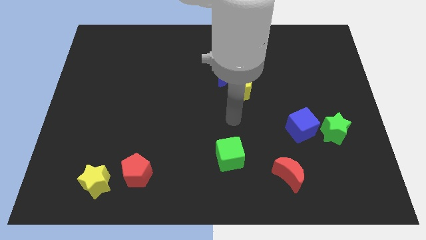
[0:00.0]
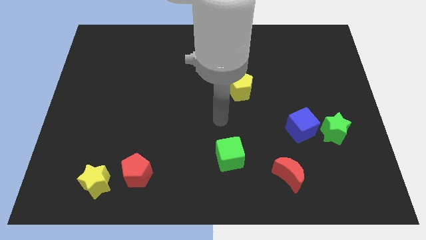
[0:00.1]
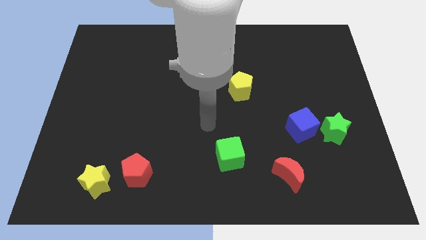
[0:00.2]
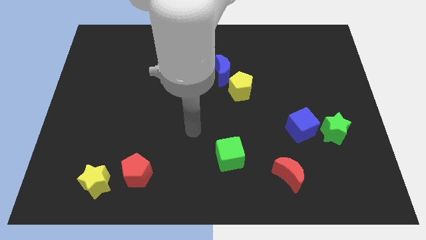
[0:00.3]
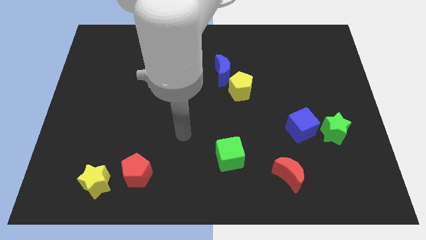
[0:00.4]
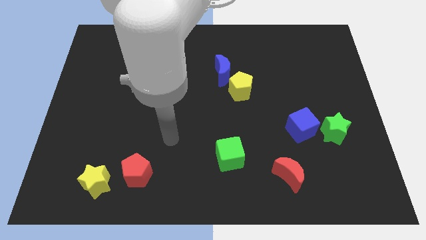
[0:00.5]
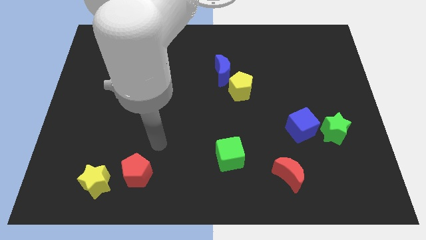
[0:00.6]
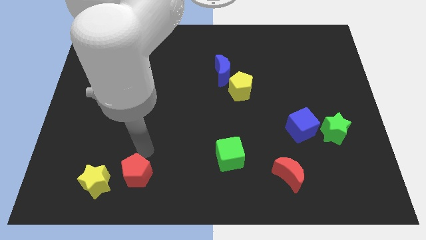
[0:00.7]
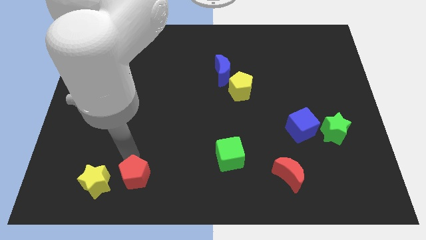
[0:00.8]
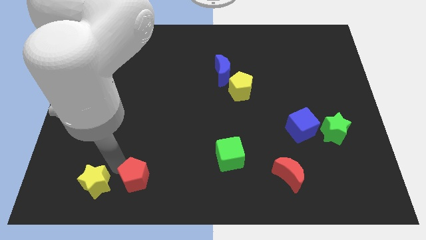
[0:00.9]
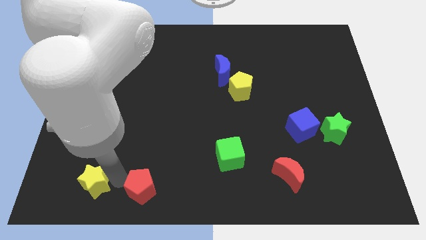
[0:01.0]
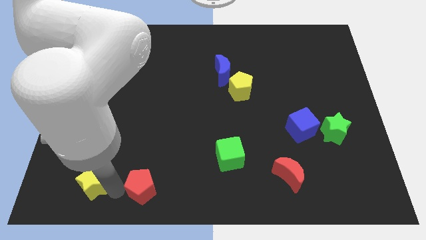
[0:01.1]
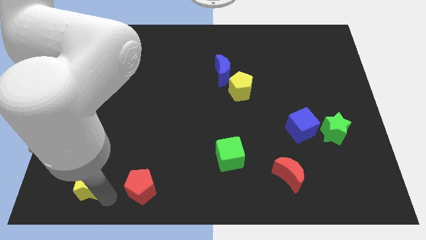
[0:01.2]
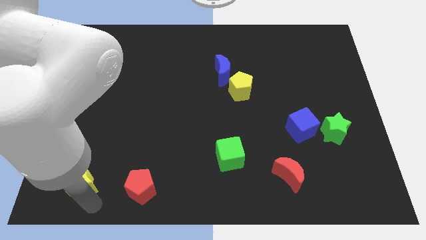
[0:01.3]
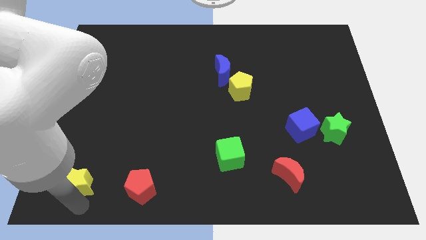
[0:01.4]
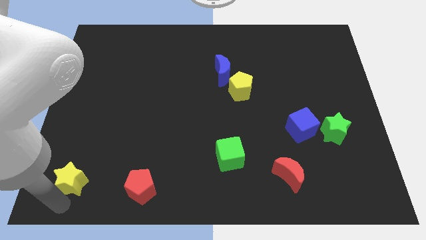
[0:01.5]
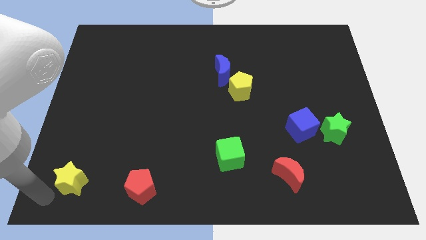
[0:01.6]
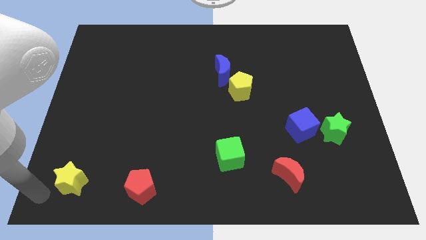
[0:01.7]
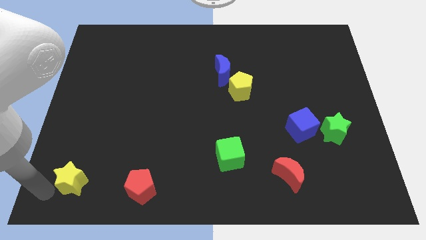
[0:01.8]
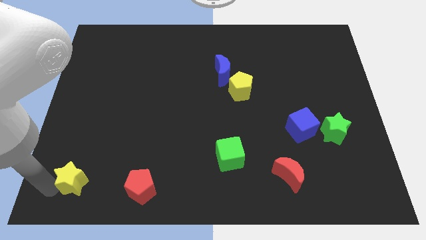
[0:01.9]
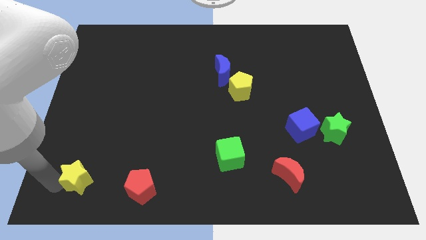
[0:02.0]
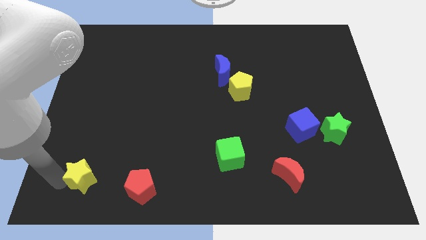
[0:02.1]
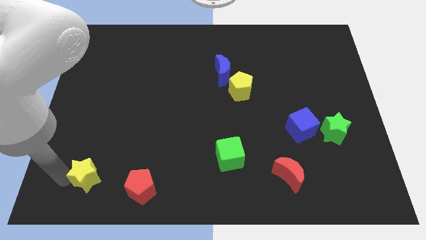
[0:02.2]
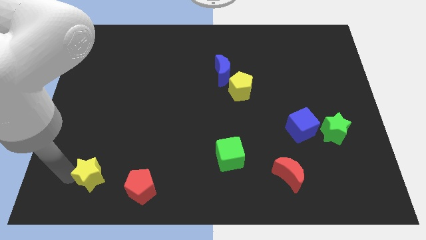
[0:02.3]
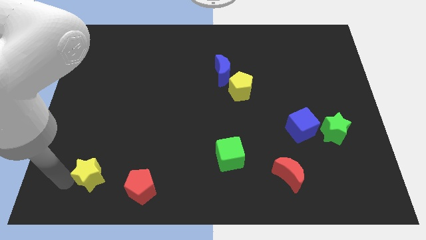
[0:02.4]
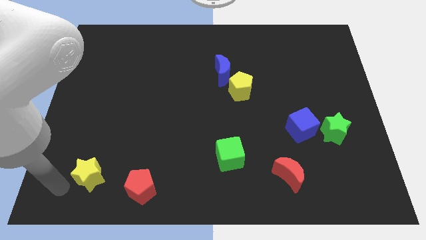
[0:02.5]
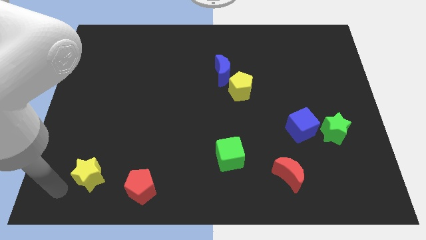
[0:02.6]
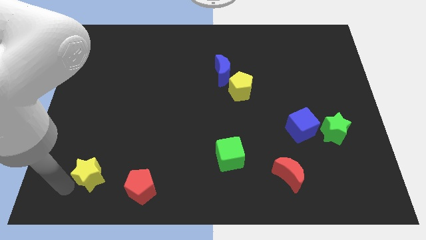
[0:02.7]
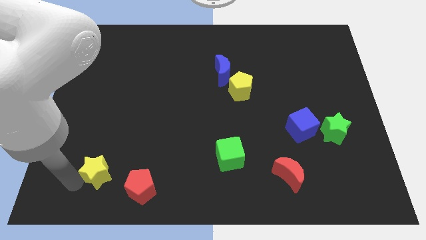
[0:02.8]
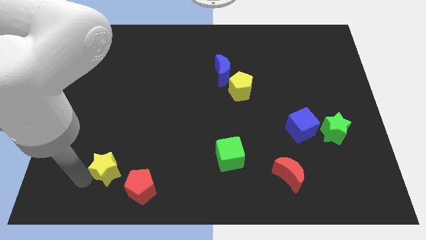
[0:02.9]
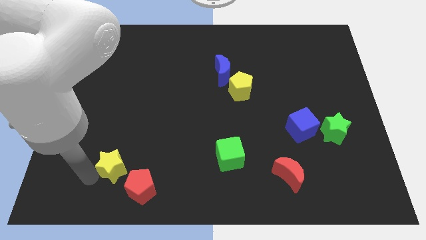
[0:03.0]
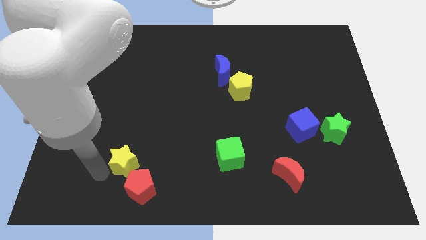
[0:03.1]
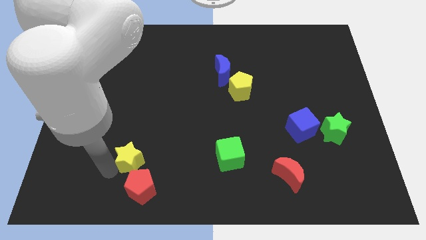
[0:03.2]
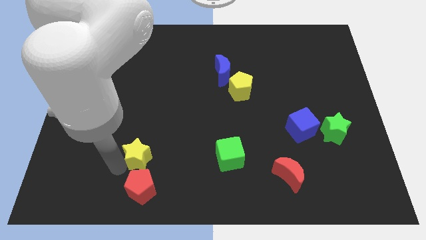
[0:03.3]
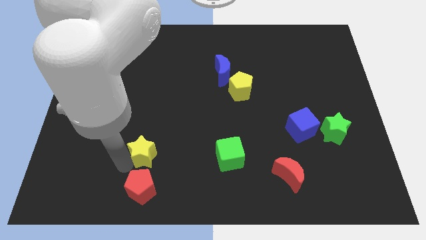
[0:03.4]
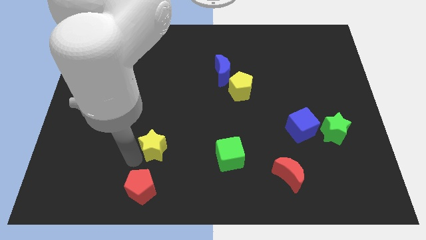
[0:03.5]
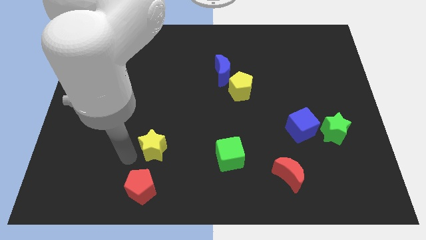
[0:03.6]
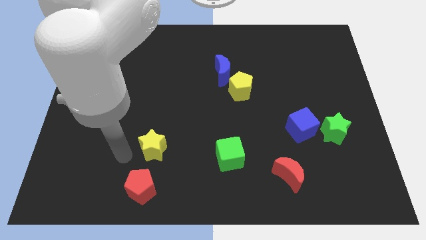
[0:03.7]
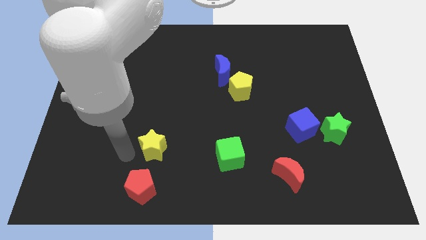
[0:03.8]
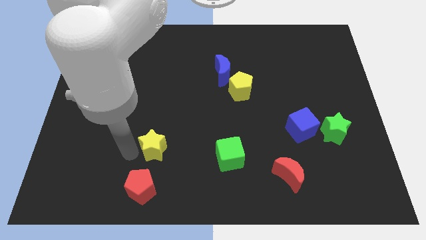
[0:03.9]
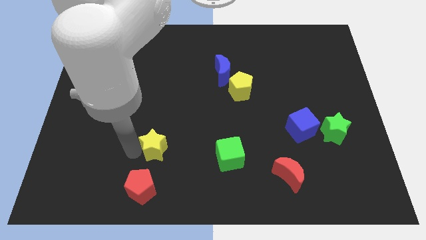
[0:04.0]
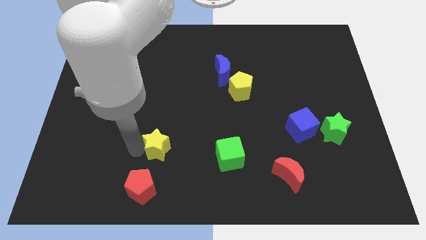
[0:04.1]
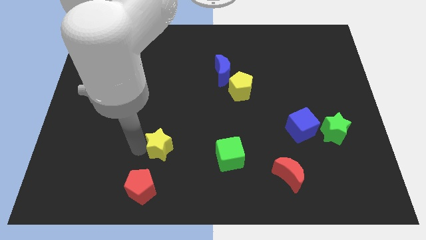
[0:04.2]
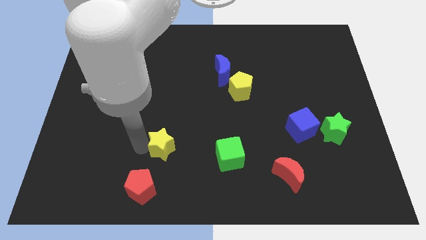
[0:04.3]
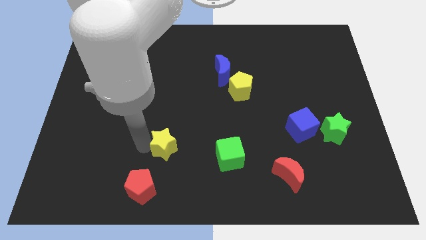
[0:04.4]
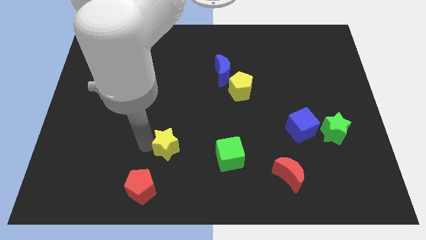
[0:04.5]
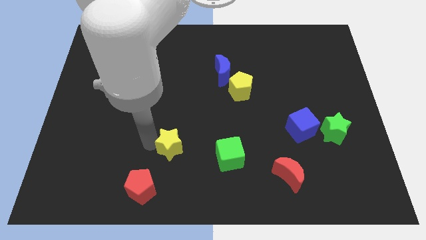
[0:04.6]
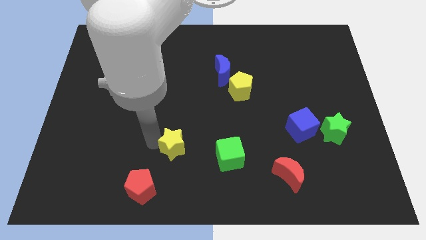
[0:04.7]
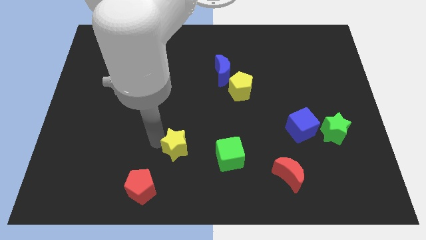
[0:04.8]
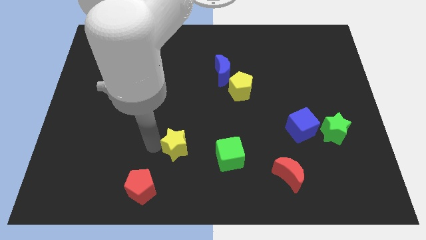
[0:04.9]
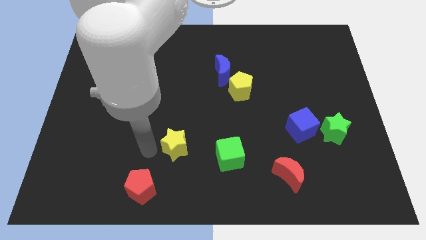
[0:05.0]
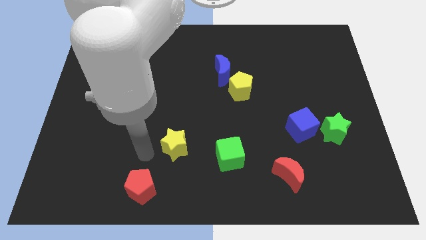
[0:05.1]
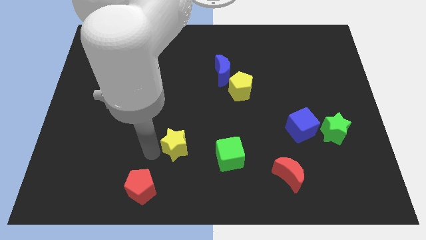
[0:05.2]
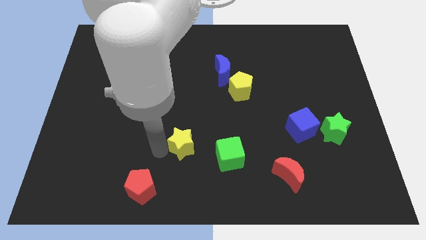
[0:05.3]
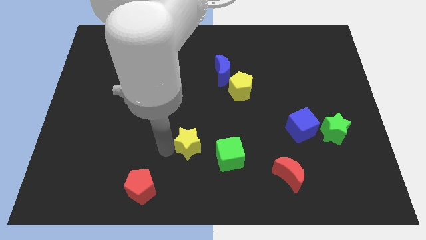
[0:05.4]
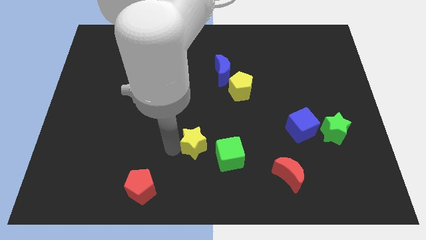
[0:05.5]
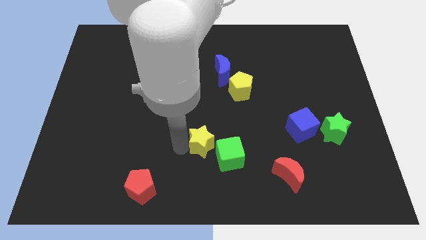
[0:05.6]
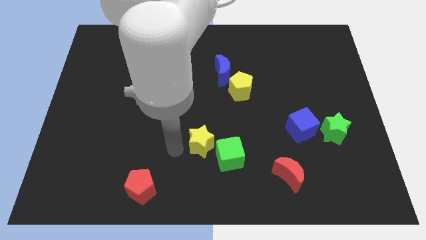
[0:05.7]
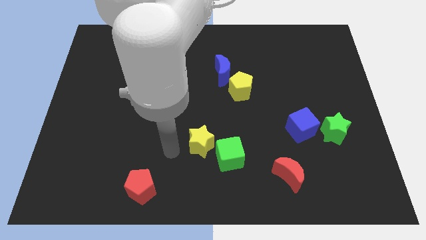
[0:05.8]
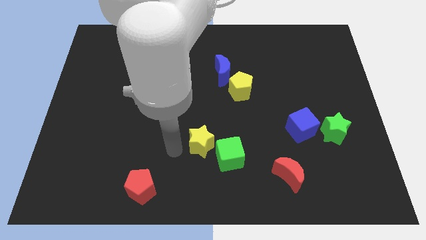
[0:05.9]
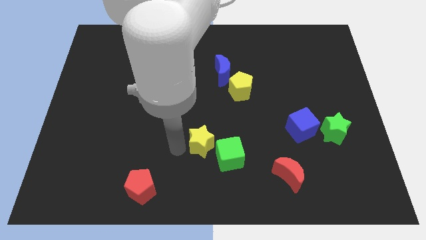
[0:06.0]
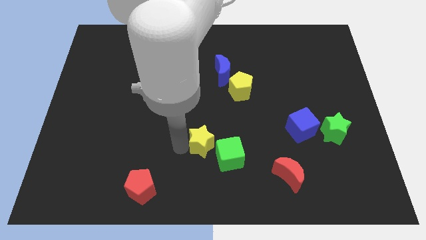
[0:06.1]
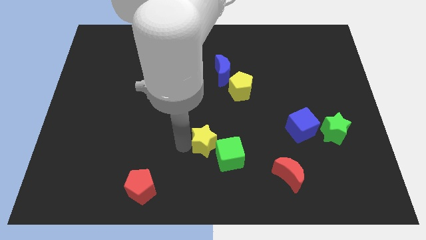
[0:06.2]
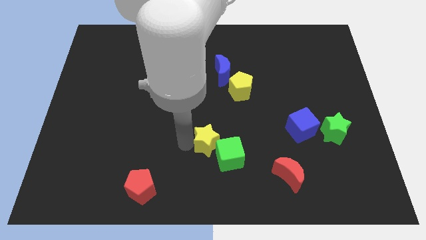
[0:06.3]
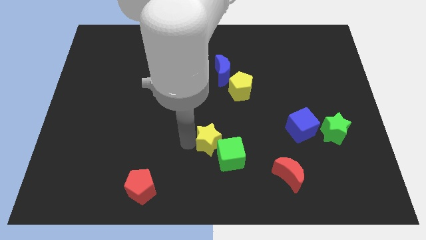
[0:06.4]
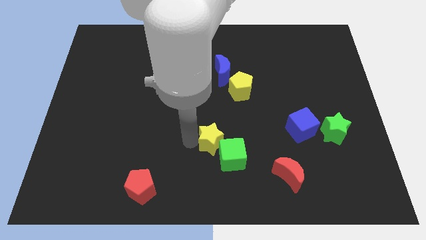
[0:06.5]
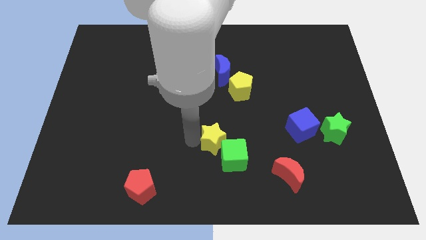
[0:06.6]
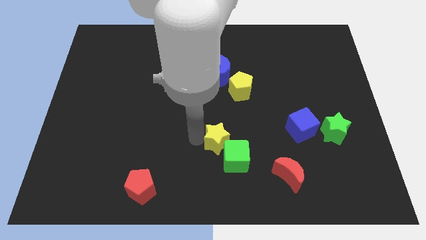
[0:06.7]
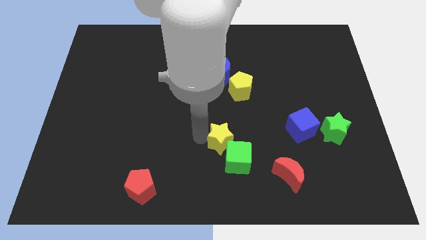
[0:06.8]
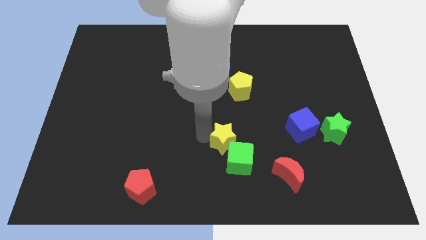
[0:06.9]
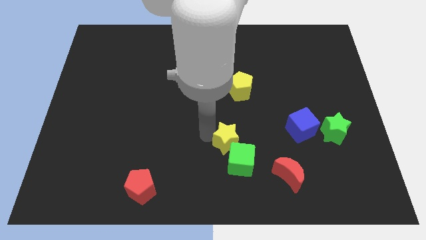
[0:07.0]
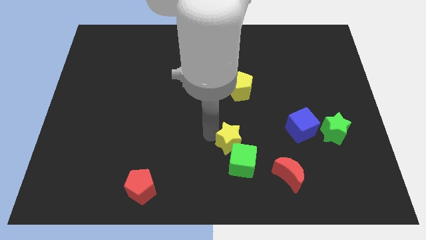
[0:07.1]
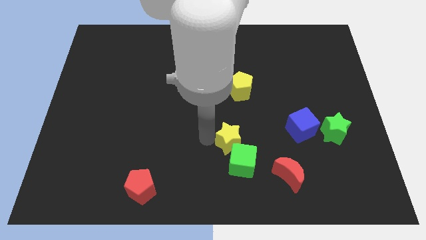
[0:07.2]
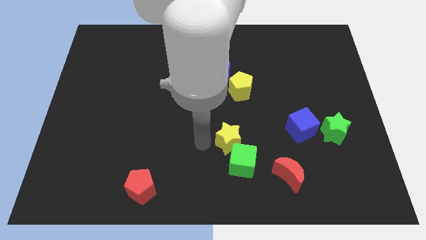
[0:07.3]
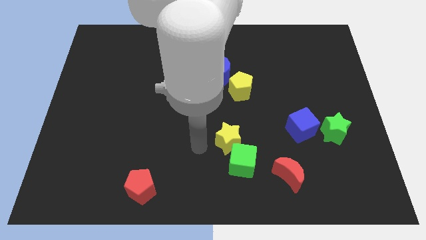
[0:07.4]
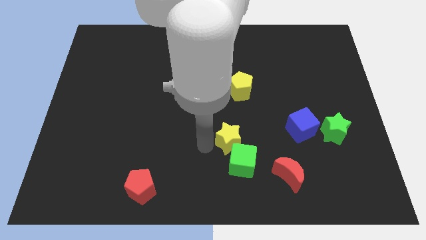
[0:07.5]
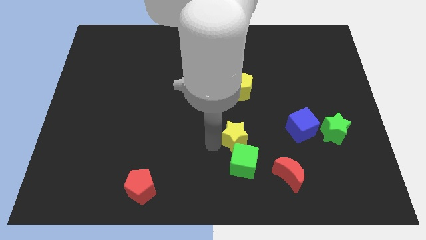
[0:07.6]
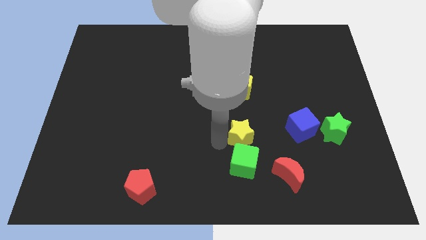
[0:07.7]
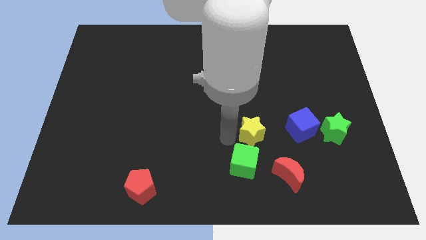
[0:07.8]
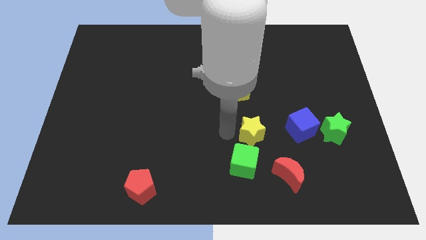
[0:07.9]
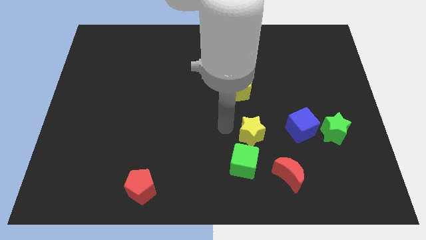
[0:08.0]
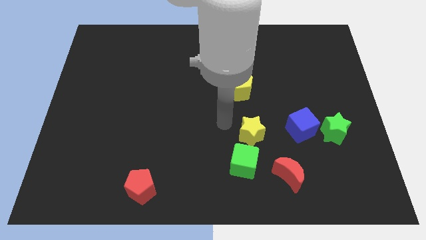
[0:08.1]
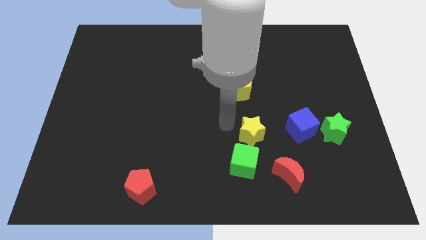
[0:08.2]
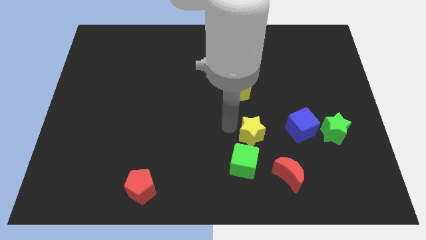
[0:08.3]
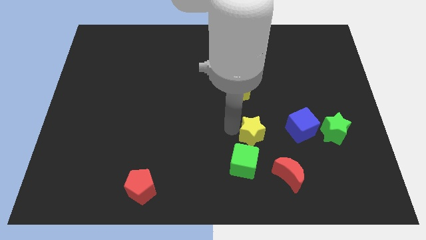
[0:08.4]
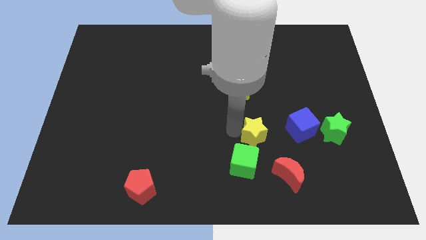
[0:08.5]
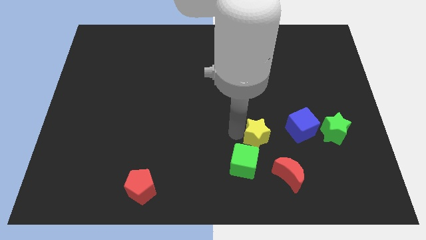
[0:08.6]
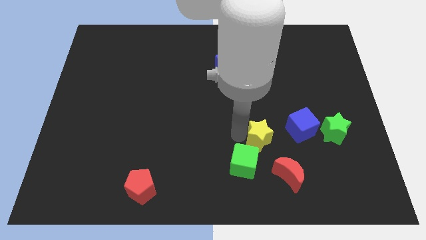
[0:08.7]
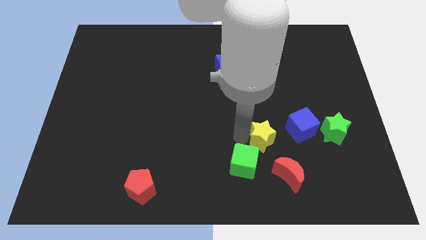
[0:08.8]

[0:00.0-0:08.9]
put the yellow star diagonally down and to the left of the blue cube
